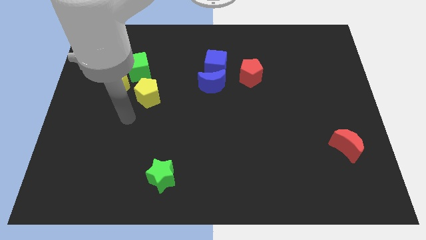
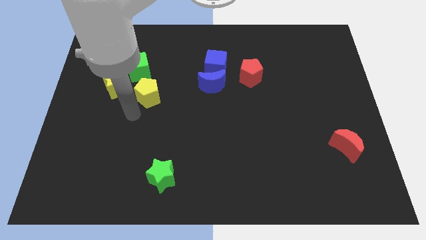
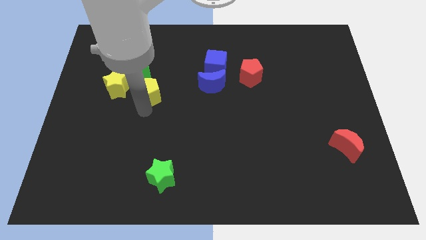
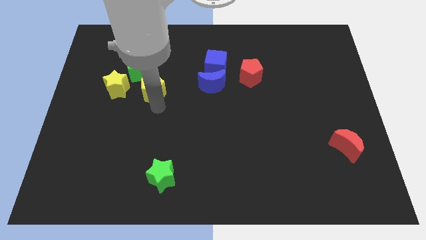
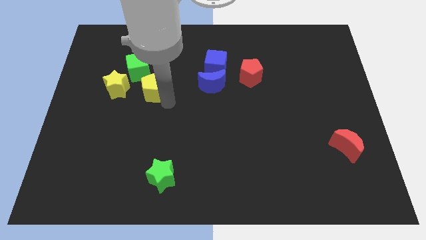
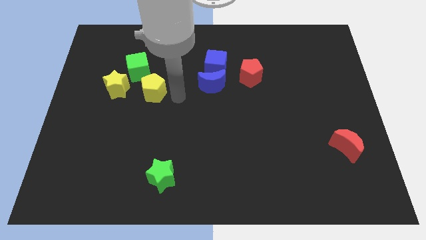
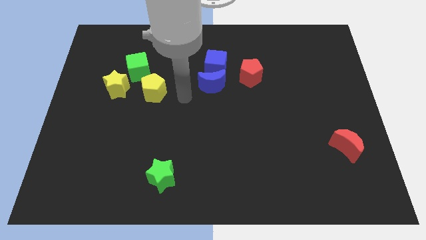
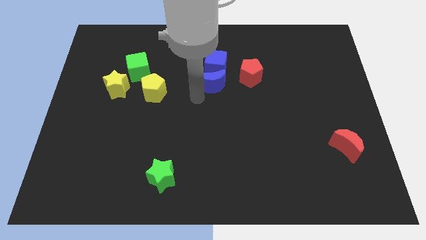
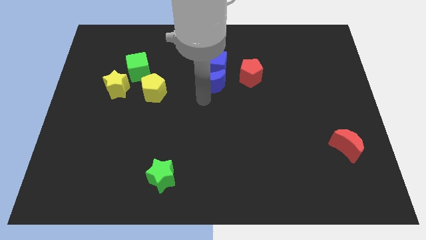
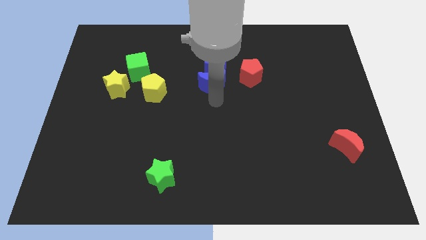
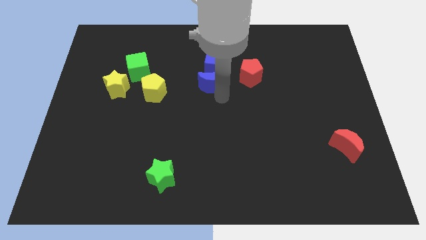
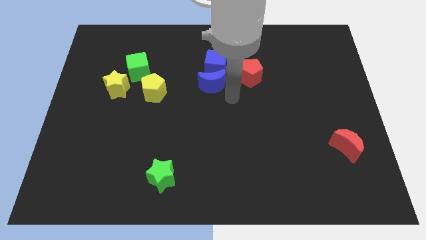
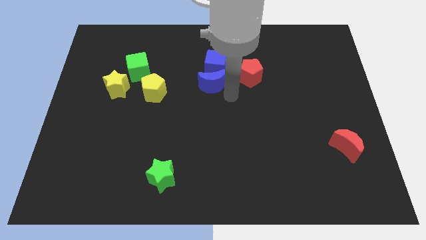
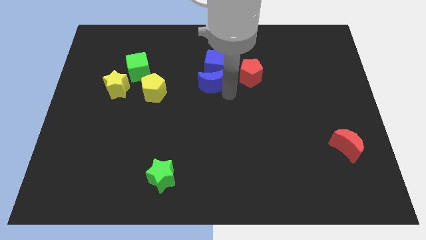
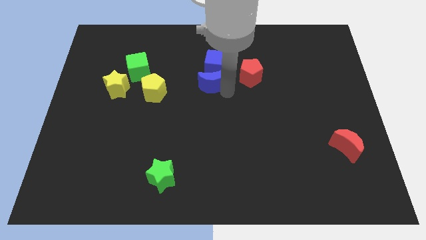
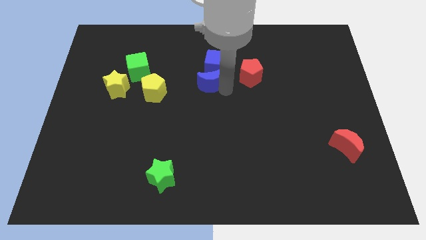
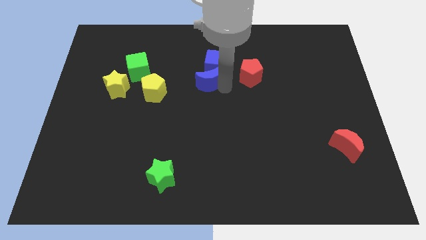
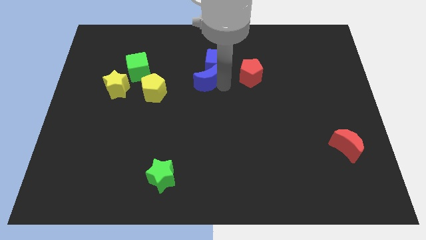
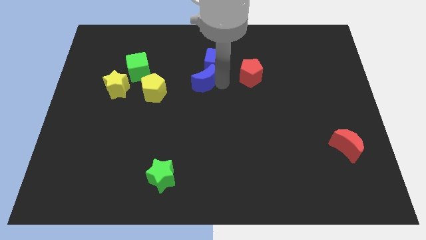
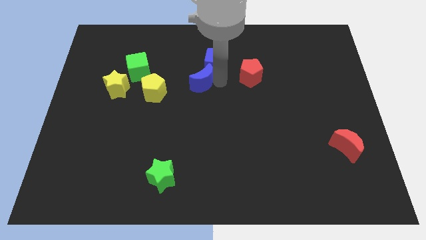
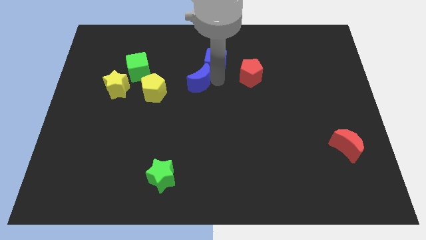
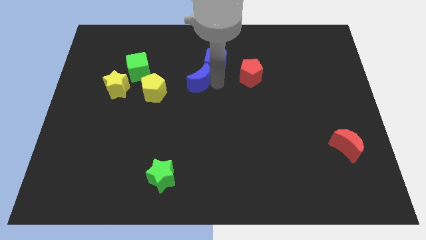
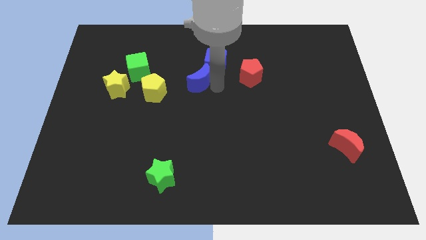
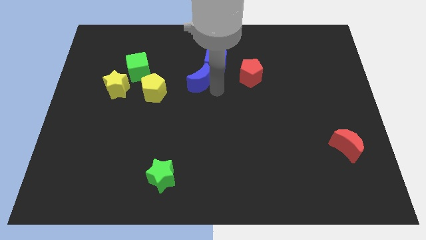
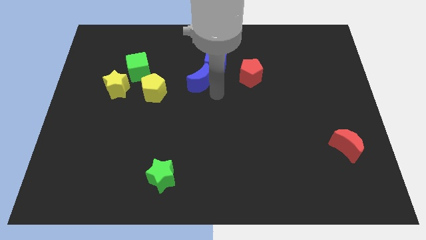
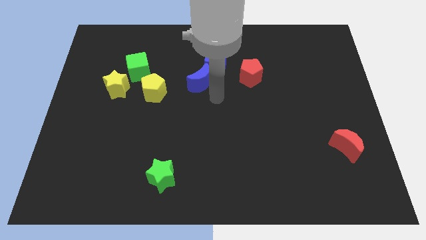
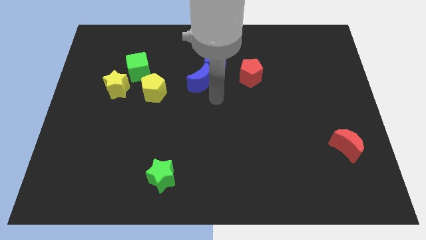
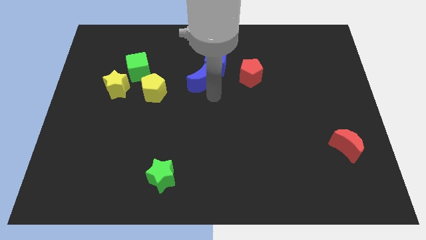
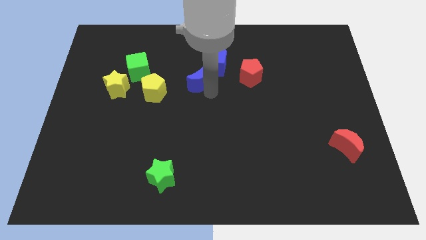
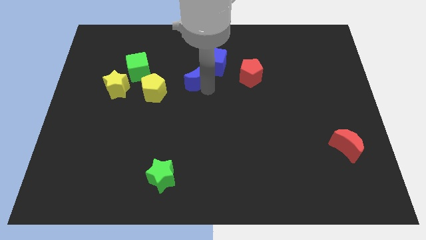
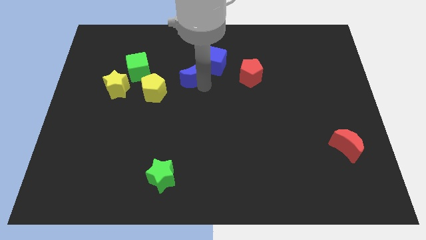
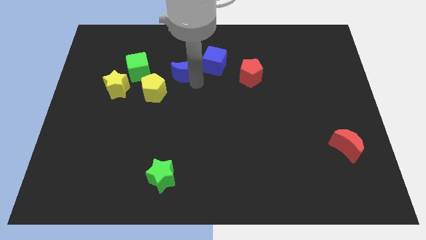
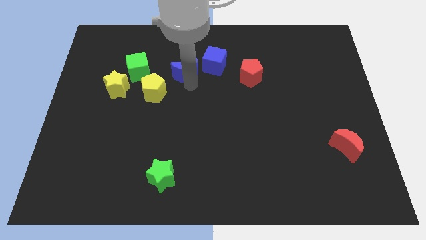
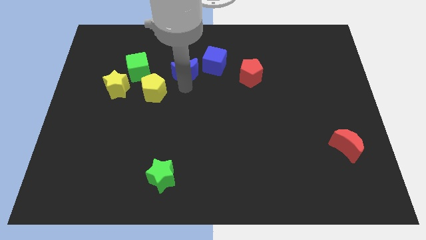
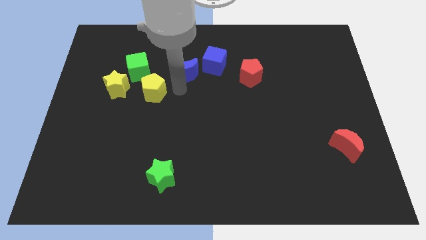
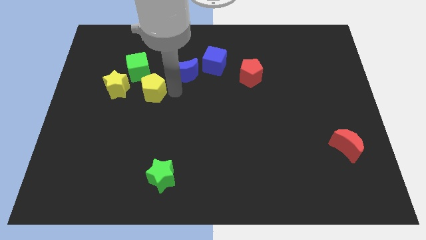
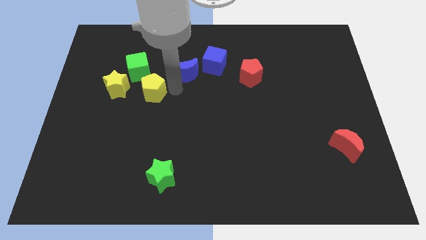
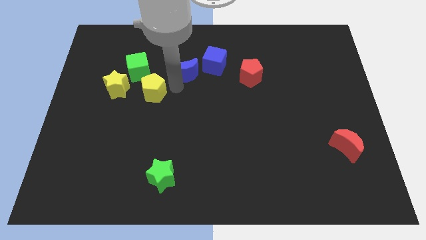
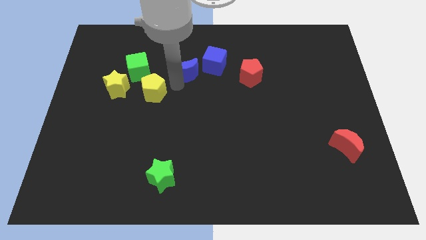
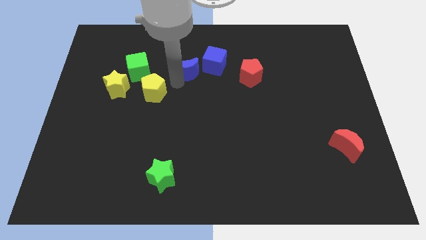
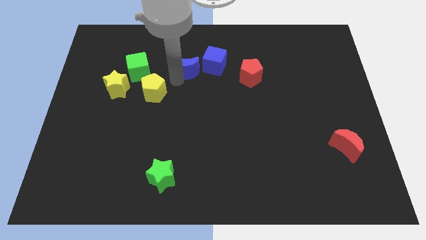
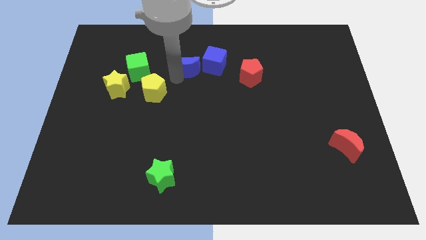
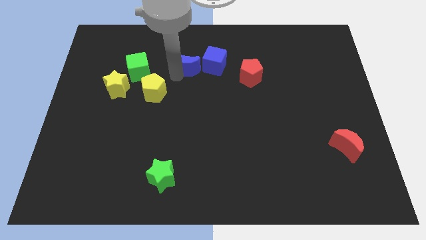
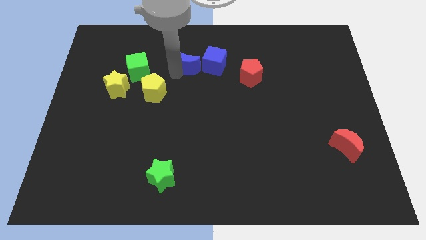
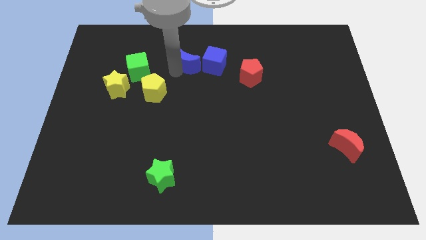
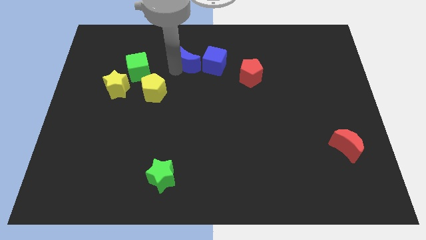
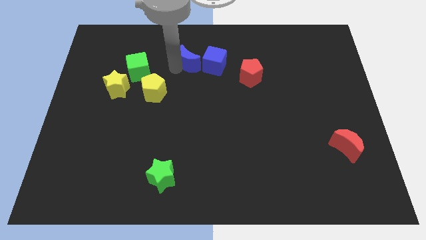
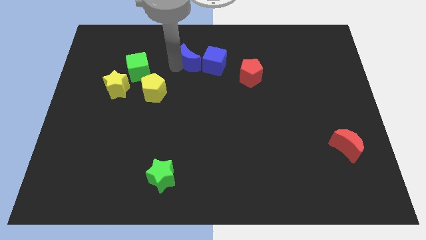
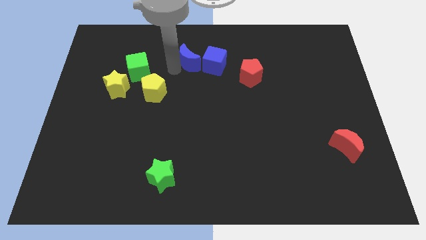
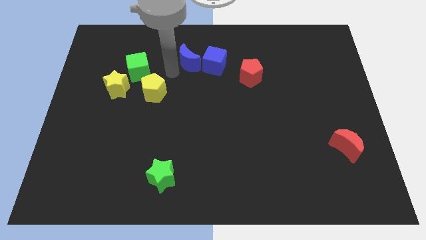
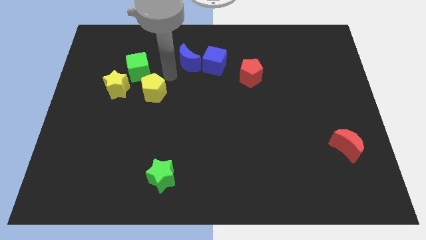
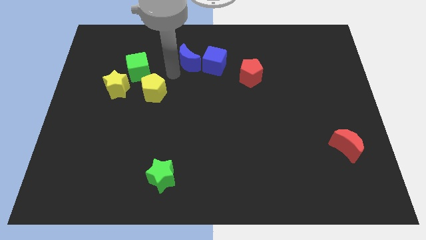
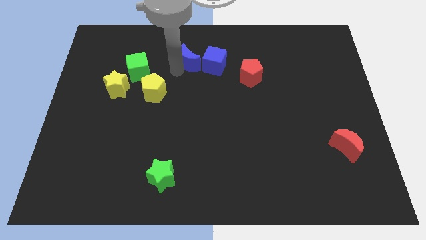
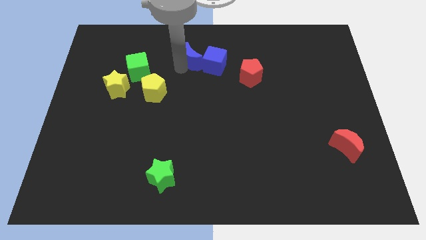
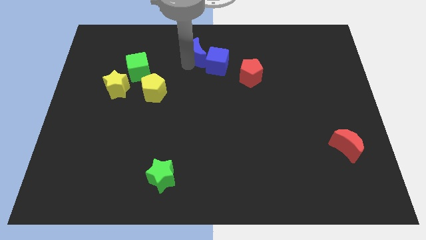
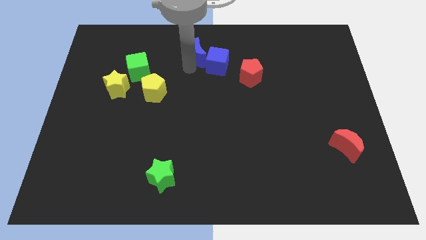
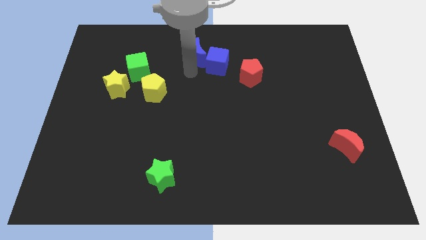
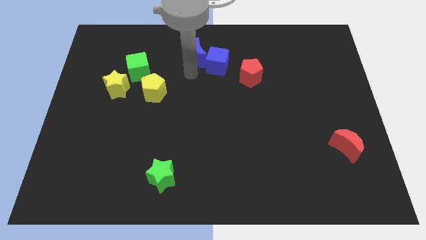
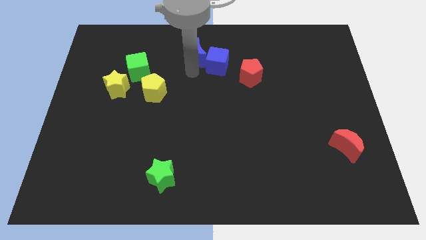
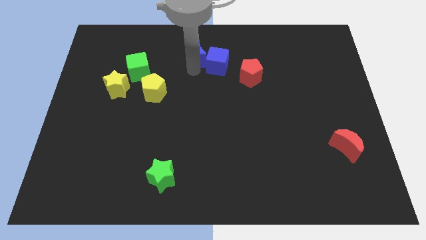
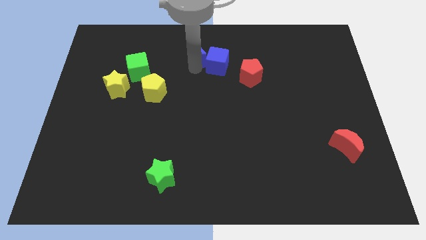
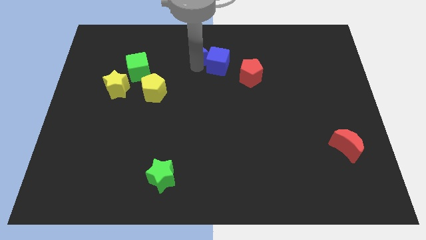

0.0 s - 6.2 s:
slide the blue moon to the towards your base

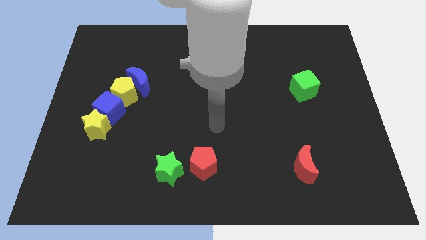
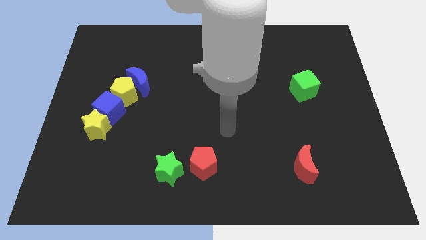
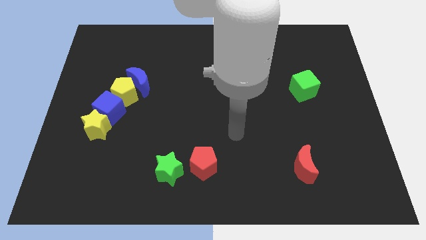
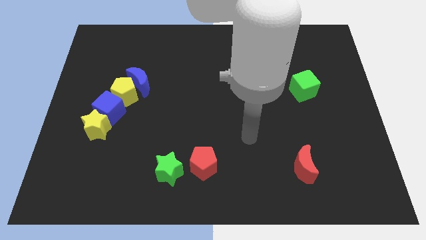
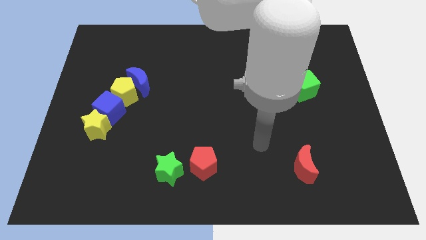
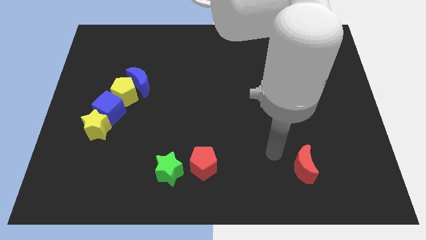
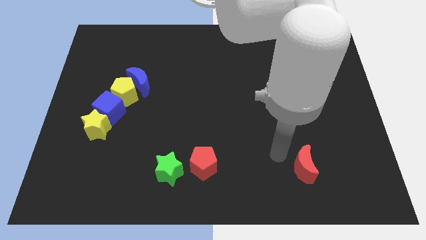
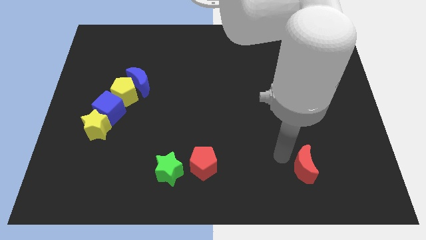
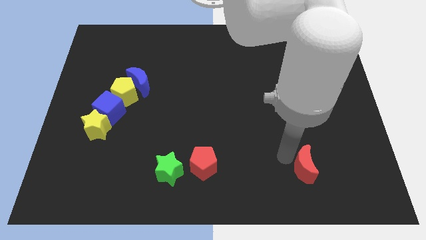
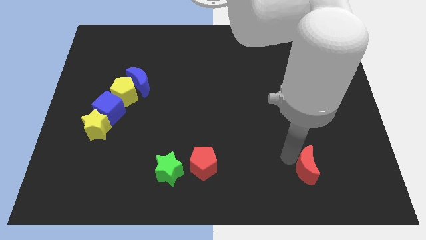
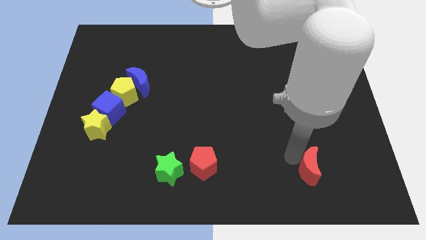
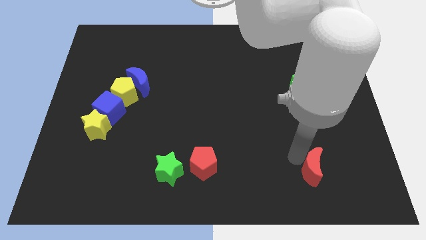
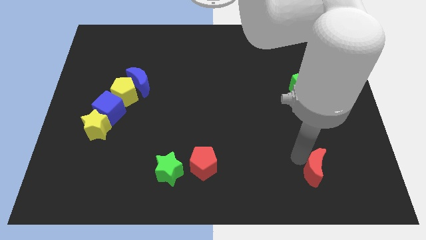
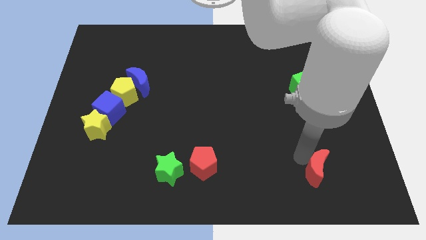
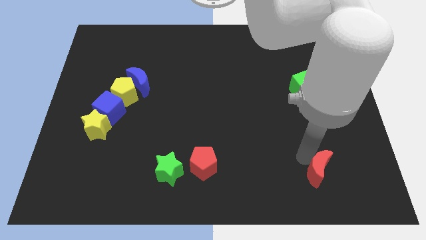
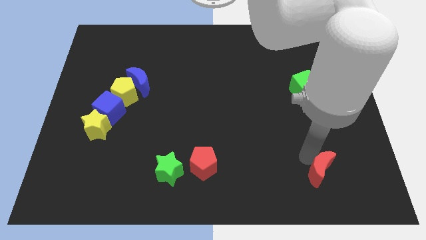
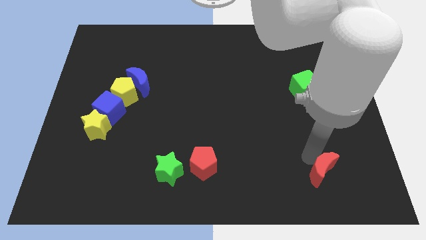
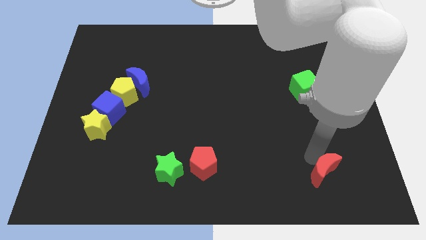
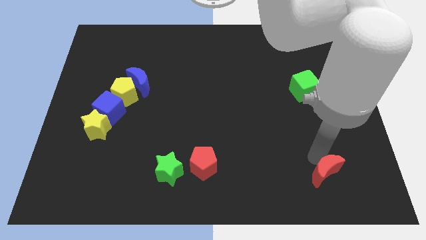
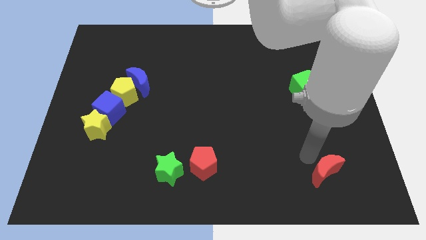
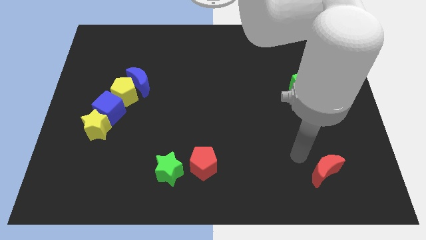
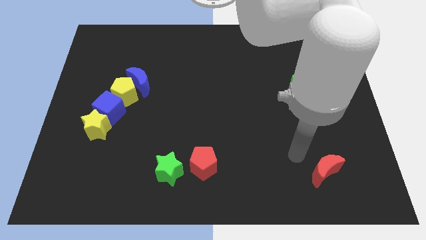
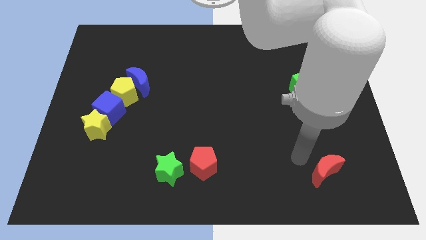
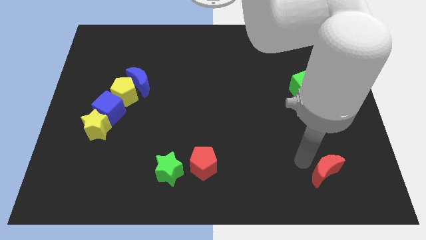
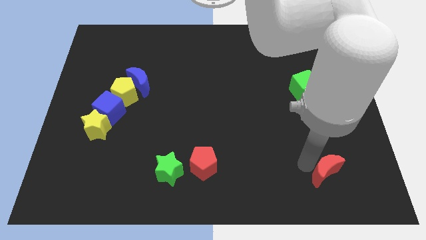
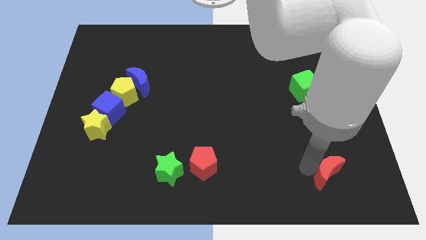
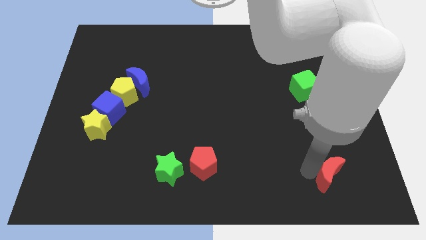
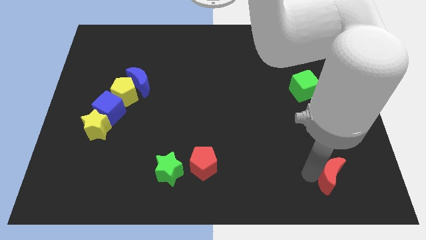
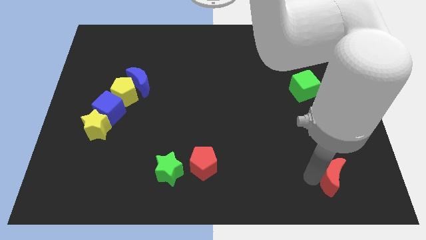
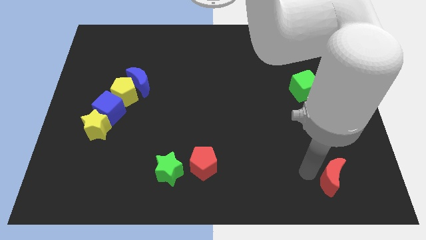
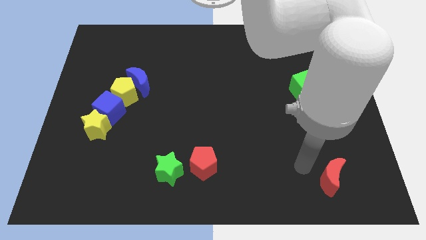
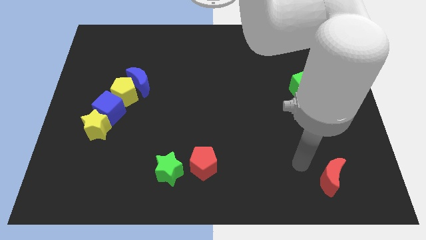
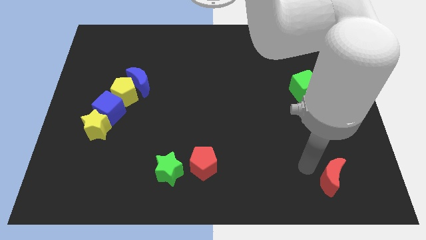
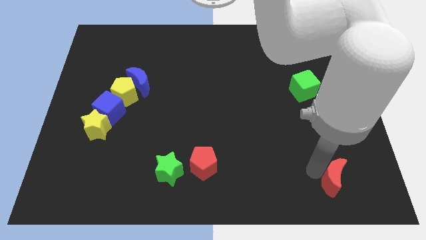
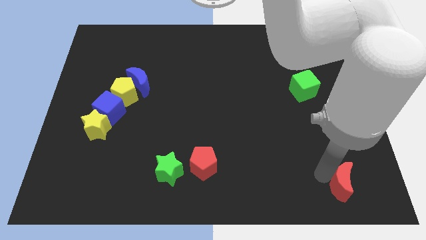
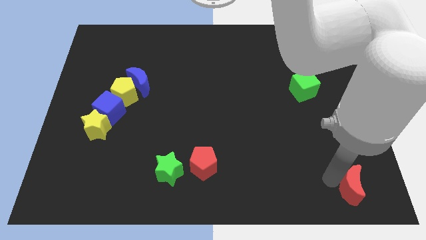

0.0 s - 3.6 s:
push the red moon to the bottom right corner
